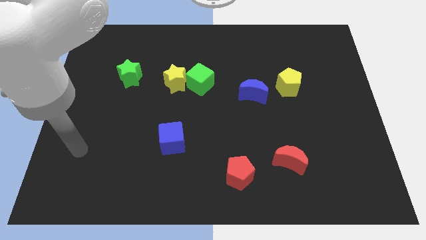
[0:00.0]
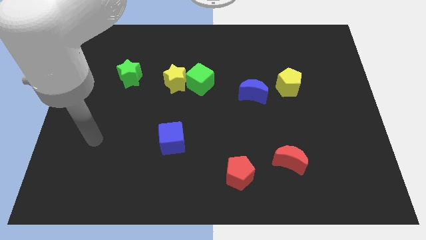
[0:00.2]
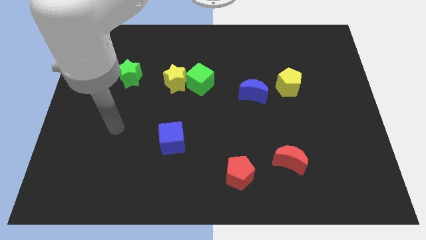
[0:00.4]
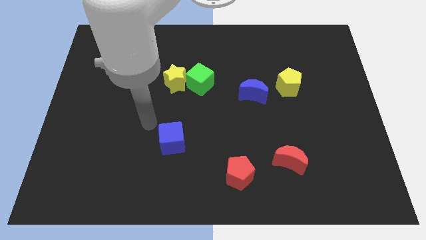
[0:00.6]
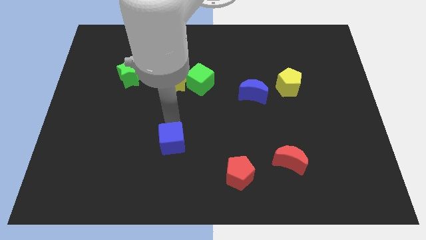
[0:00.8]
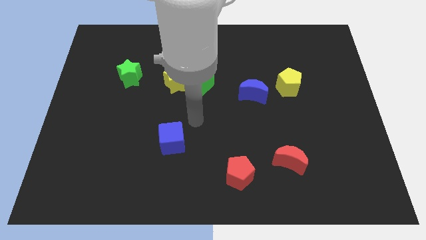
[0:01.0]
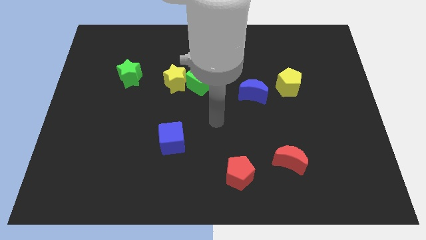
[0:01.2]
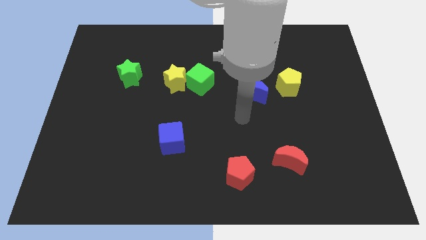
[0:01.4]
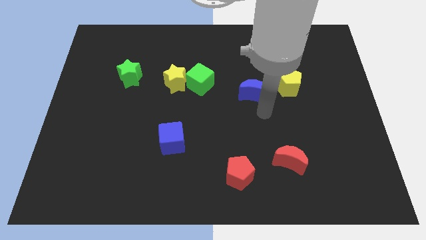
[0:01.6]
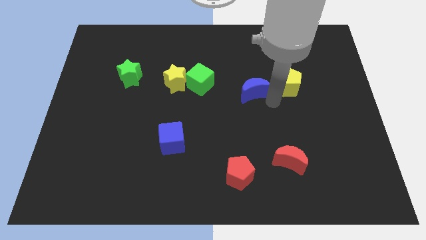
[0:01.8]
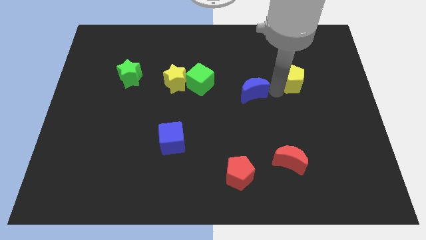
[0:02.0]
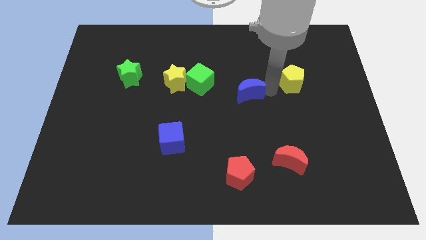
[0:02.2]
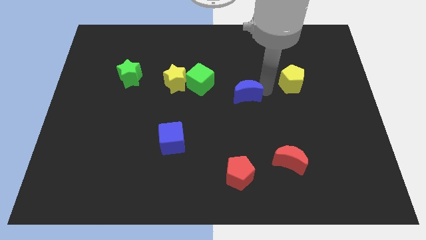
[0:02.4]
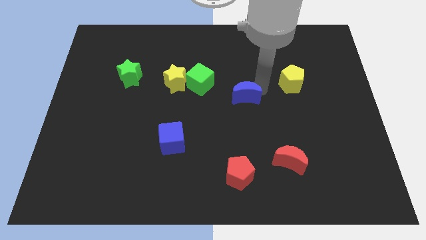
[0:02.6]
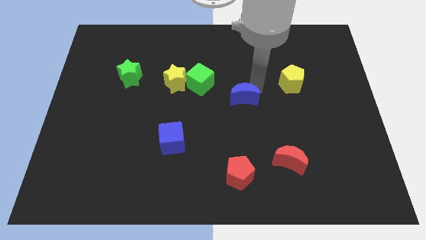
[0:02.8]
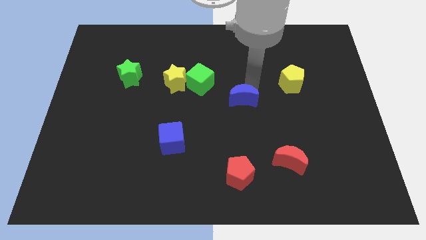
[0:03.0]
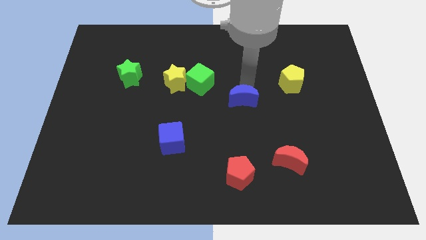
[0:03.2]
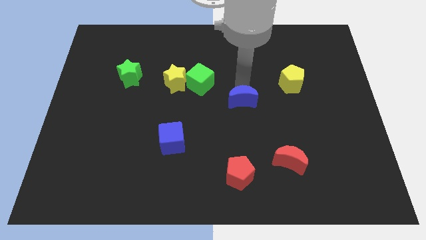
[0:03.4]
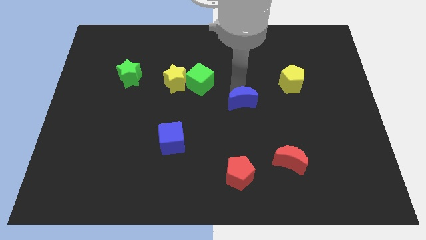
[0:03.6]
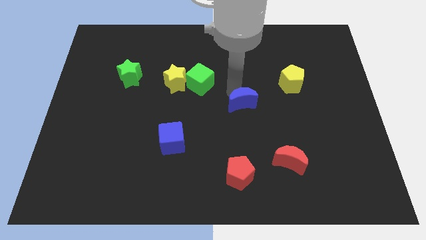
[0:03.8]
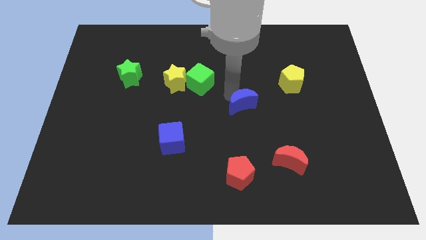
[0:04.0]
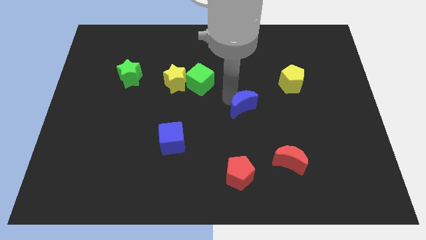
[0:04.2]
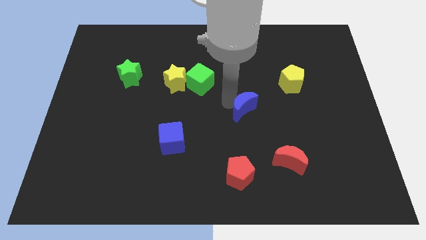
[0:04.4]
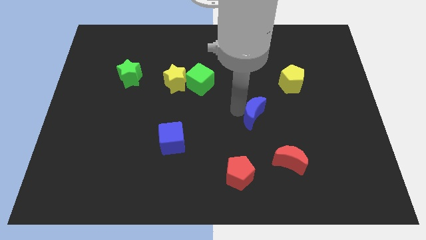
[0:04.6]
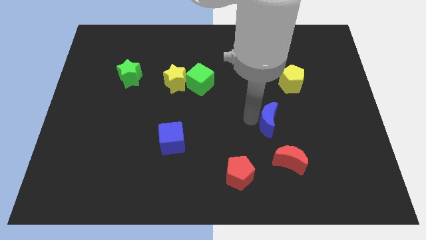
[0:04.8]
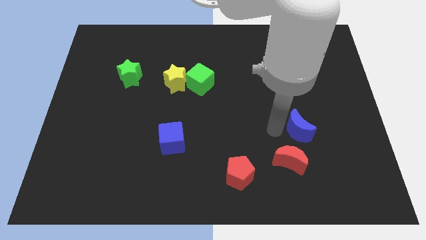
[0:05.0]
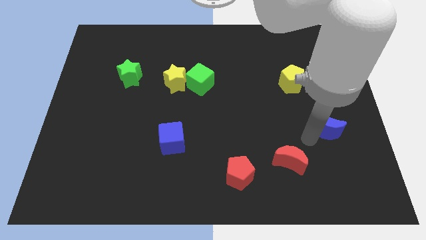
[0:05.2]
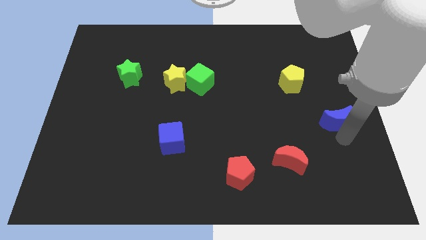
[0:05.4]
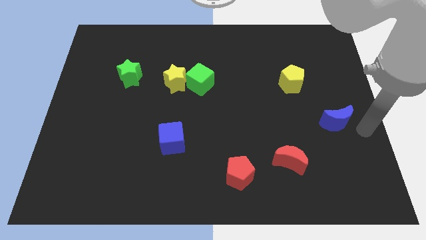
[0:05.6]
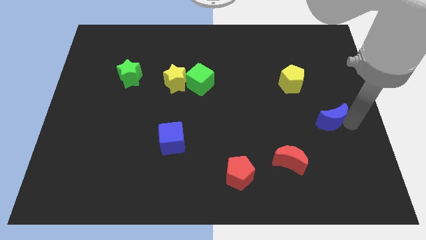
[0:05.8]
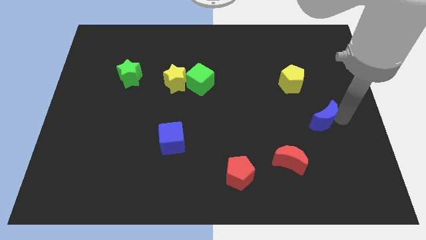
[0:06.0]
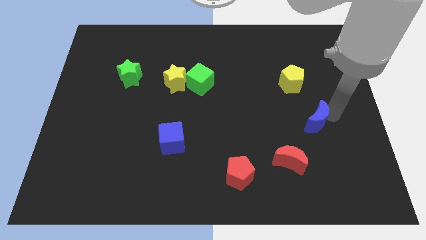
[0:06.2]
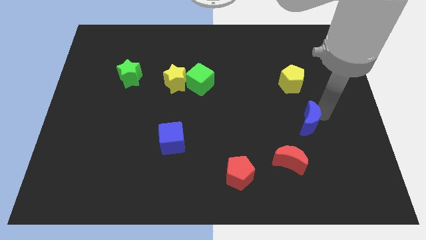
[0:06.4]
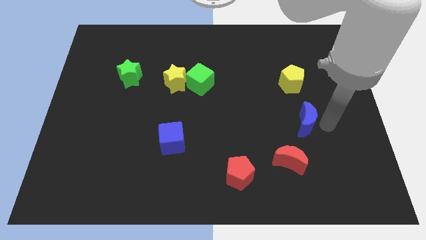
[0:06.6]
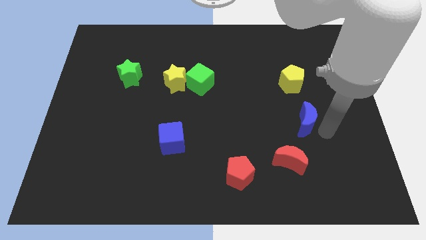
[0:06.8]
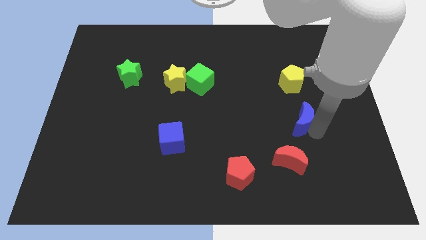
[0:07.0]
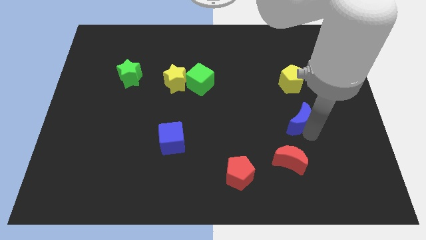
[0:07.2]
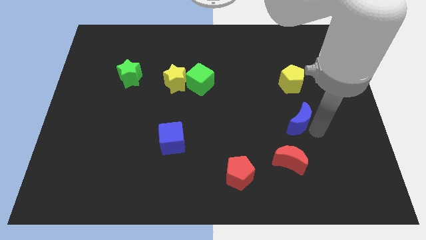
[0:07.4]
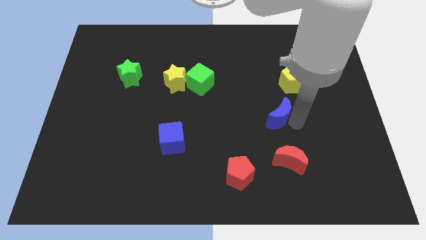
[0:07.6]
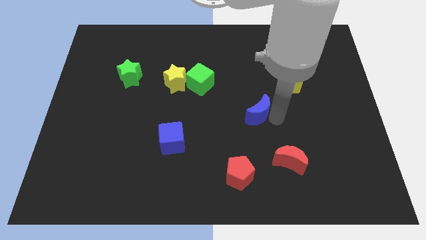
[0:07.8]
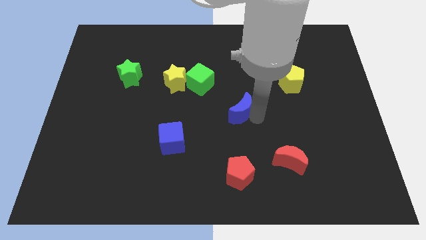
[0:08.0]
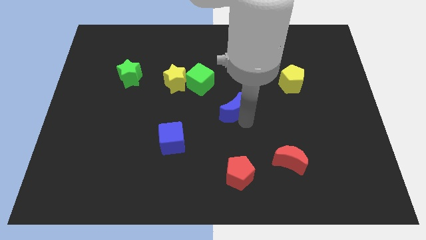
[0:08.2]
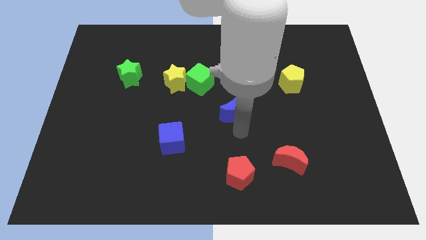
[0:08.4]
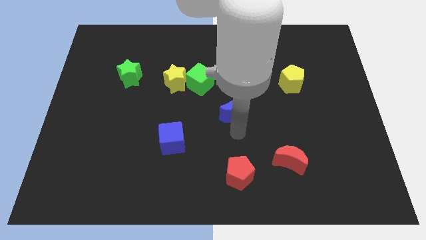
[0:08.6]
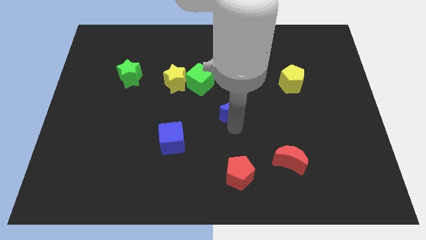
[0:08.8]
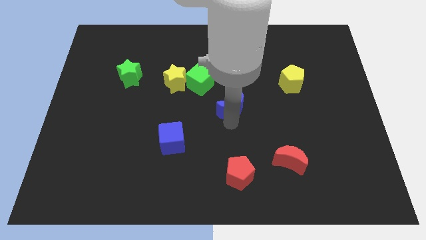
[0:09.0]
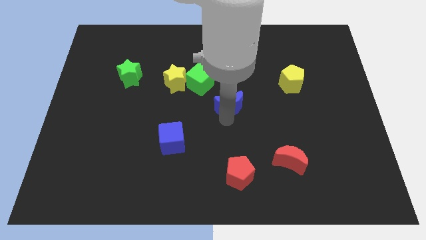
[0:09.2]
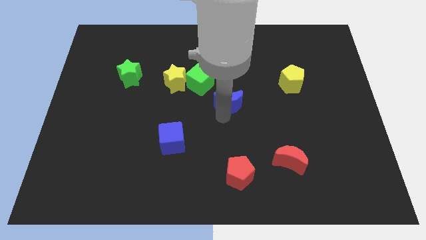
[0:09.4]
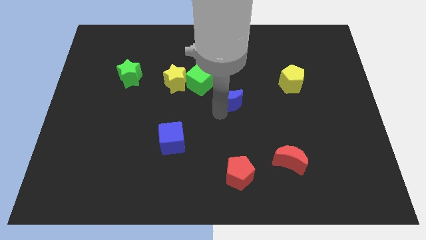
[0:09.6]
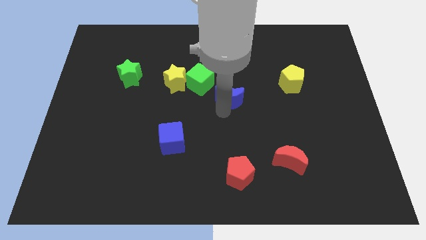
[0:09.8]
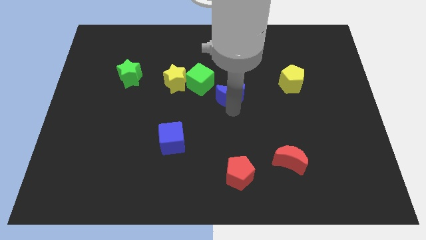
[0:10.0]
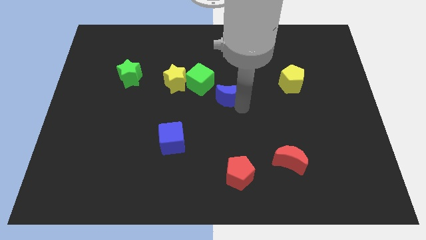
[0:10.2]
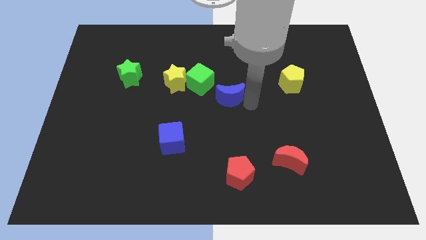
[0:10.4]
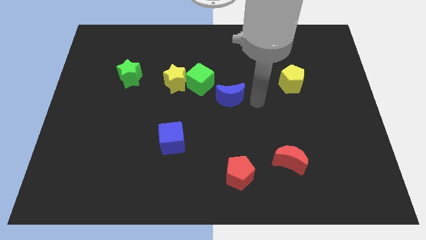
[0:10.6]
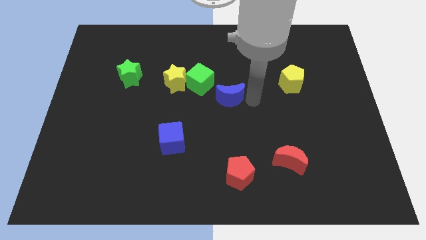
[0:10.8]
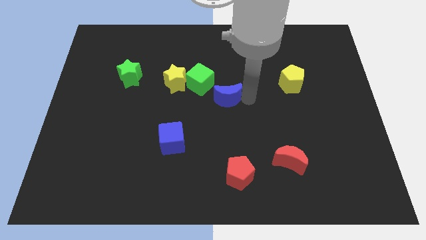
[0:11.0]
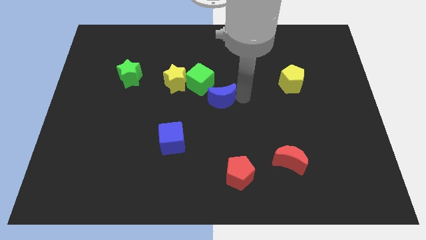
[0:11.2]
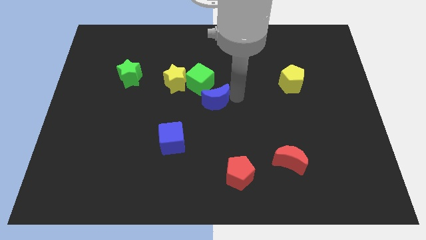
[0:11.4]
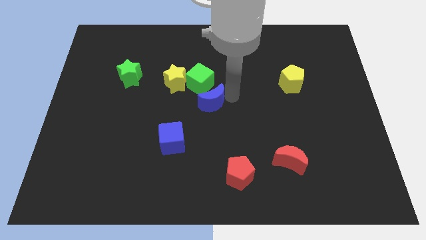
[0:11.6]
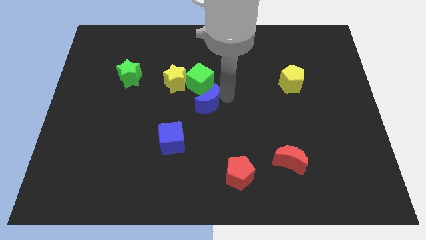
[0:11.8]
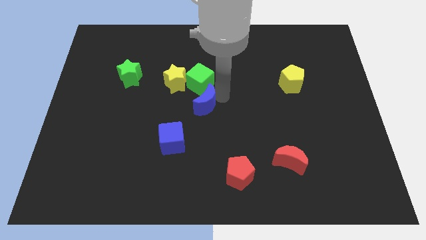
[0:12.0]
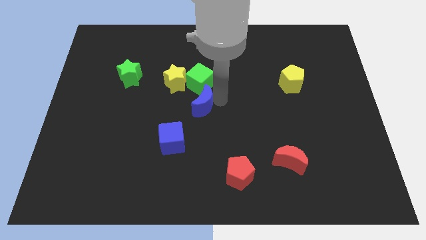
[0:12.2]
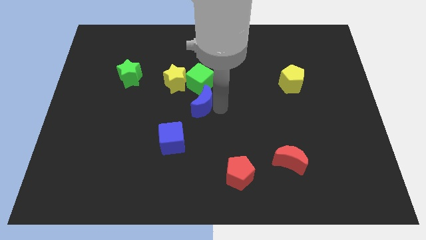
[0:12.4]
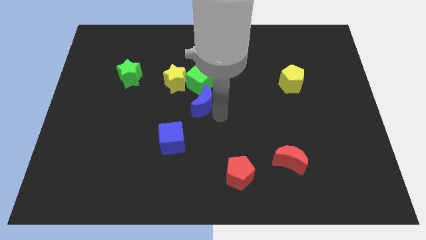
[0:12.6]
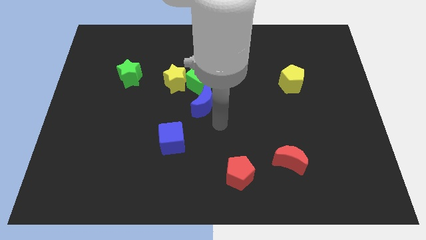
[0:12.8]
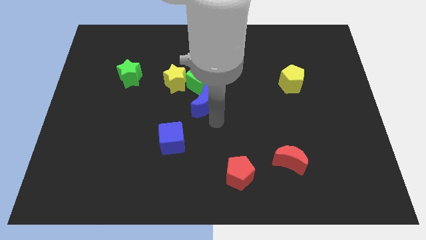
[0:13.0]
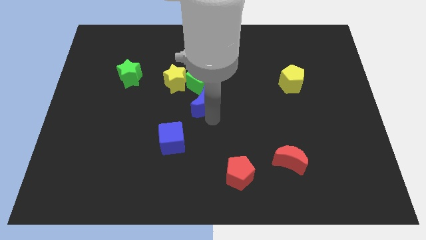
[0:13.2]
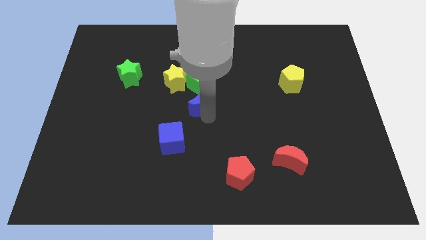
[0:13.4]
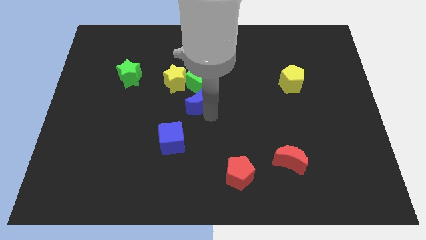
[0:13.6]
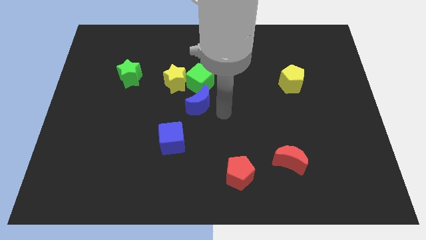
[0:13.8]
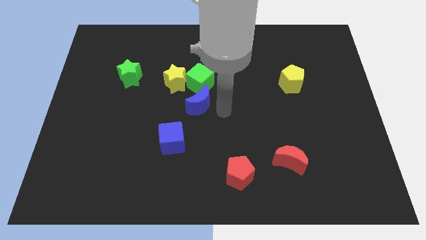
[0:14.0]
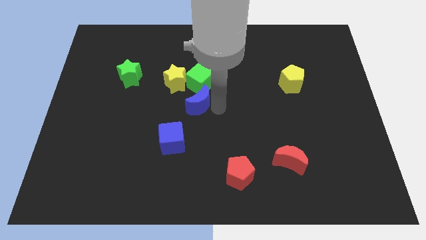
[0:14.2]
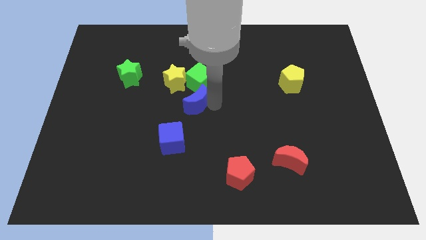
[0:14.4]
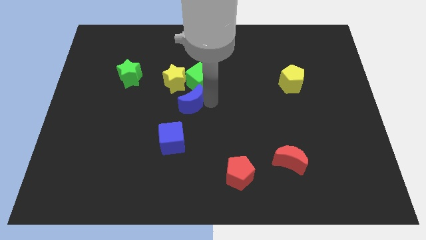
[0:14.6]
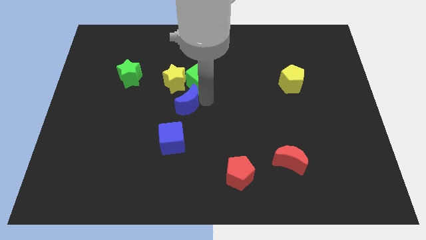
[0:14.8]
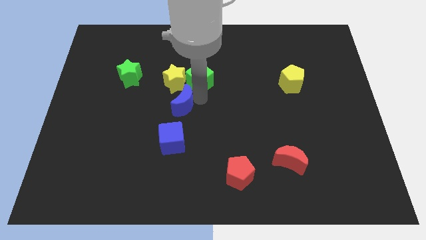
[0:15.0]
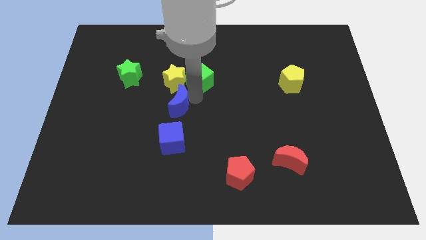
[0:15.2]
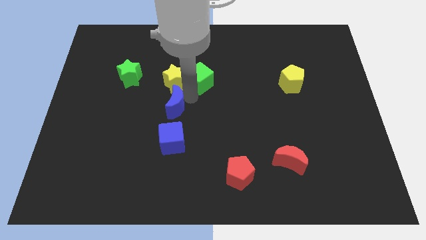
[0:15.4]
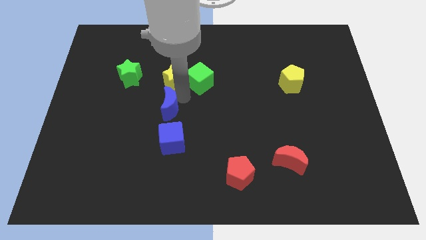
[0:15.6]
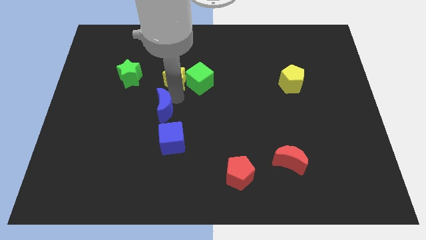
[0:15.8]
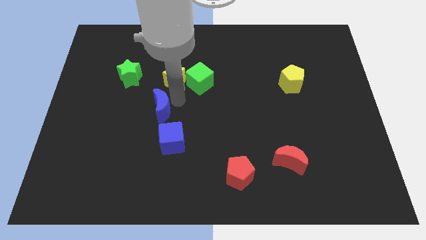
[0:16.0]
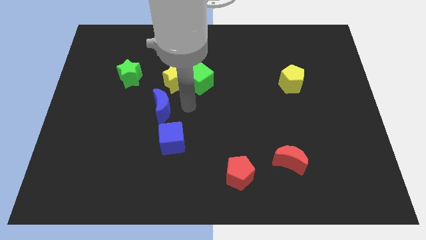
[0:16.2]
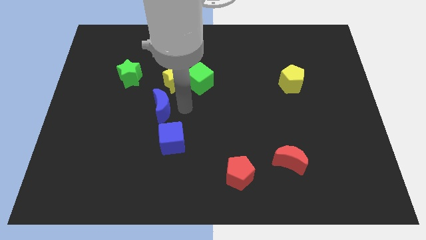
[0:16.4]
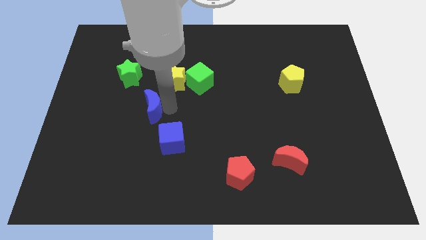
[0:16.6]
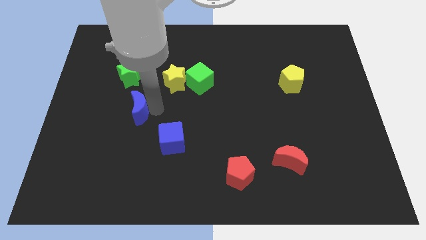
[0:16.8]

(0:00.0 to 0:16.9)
slide the blue moon to the bottom of the green star
